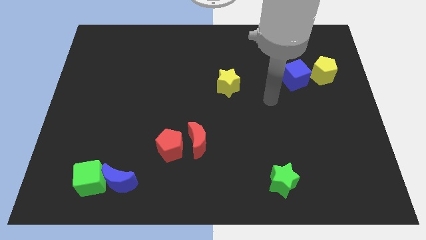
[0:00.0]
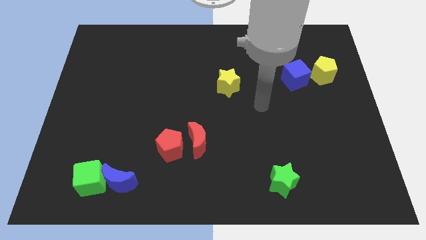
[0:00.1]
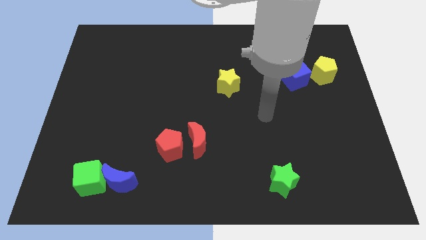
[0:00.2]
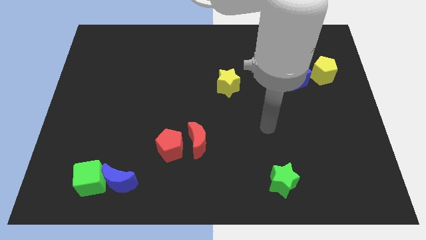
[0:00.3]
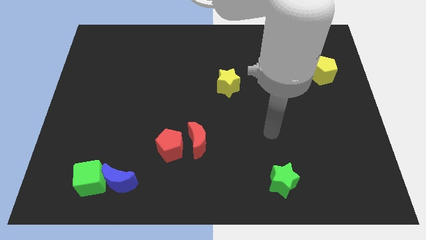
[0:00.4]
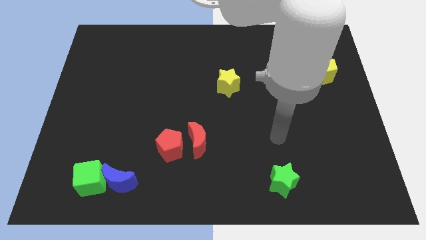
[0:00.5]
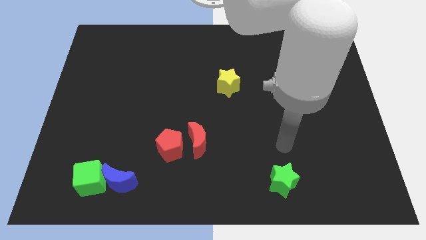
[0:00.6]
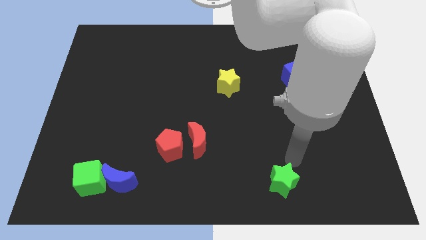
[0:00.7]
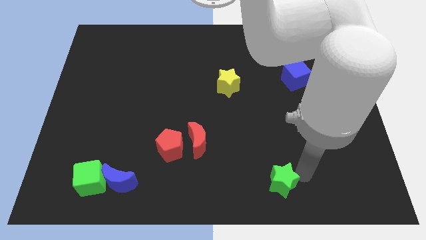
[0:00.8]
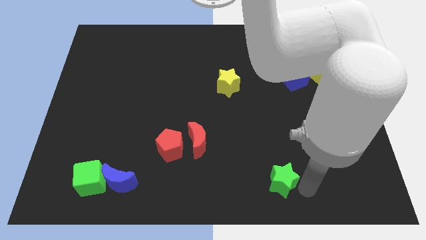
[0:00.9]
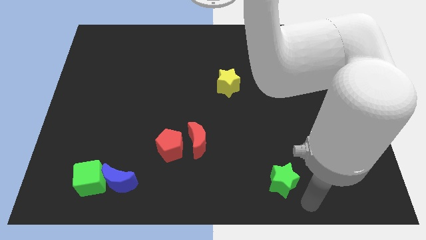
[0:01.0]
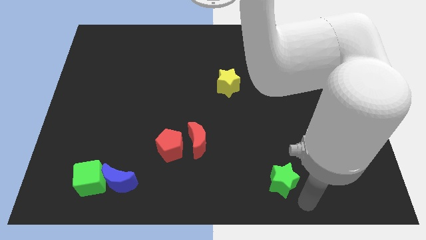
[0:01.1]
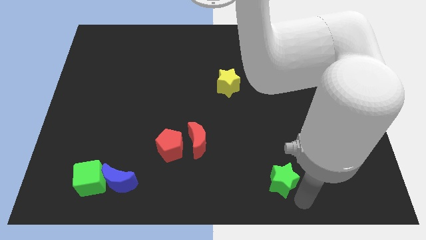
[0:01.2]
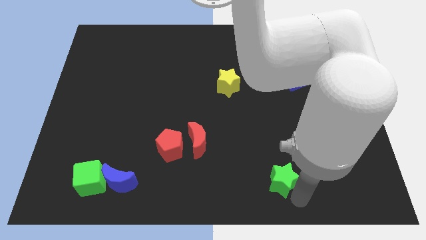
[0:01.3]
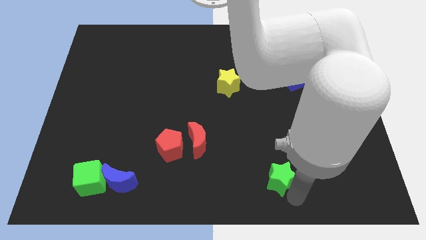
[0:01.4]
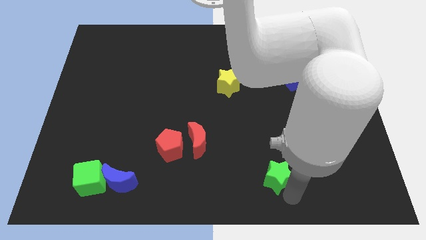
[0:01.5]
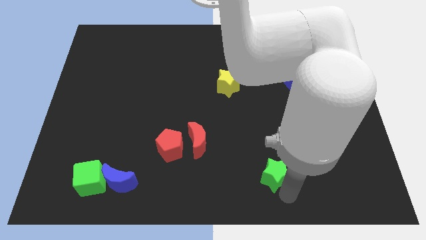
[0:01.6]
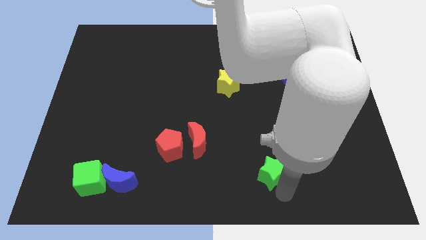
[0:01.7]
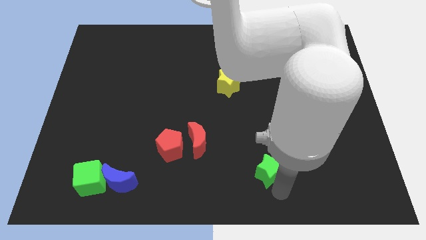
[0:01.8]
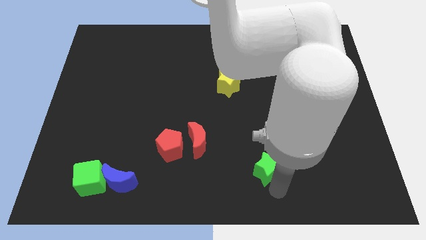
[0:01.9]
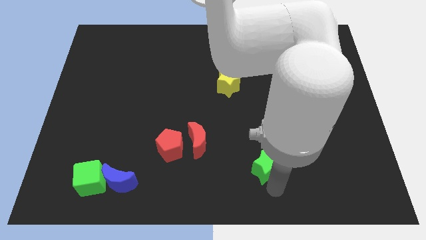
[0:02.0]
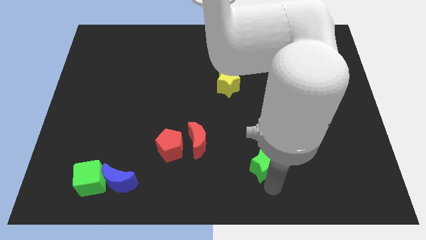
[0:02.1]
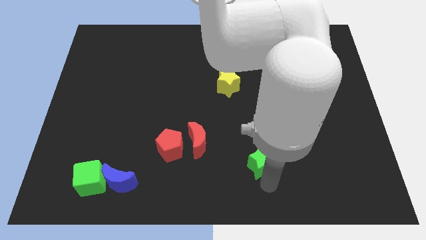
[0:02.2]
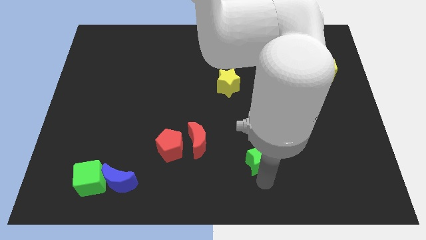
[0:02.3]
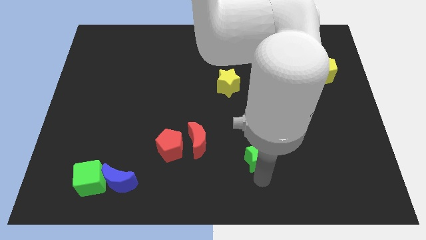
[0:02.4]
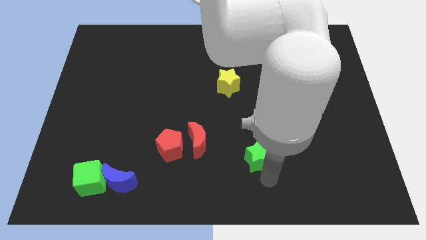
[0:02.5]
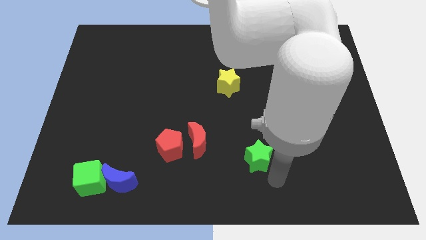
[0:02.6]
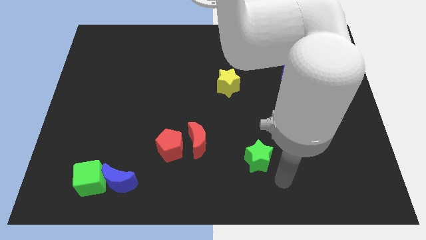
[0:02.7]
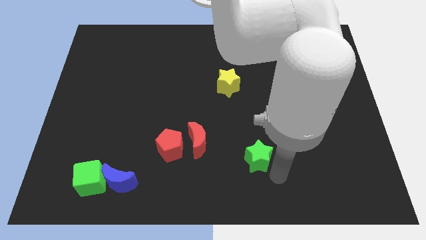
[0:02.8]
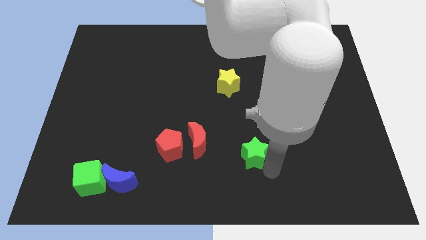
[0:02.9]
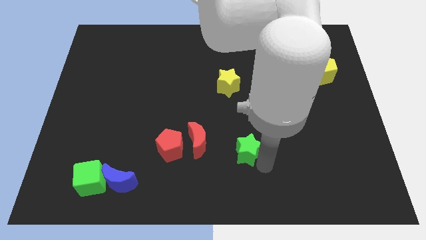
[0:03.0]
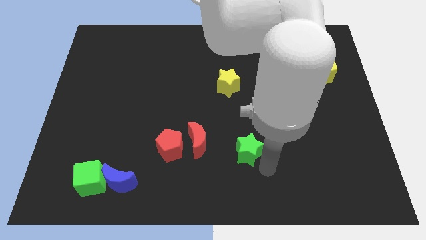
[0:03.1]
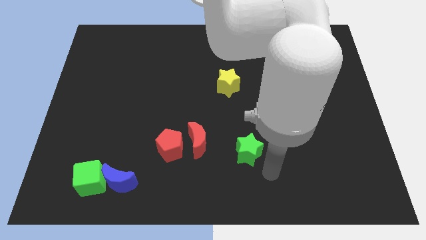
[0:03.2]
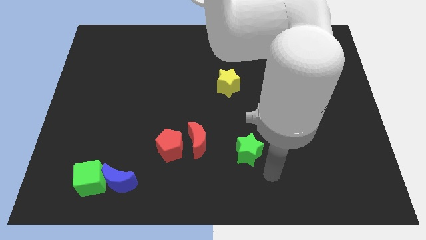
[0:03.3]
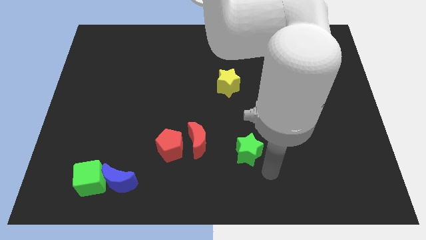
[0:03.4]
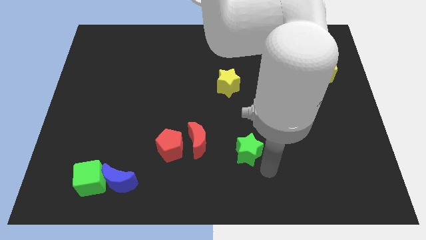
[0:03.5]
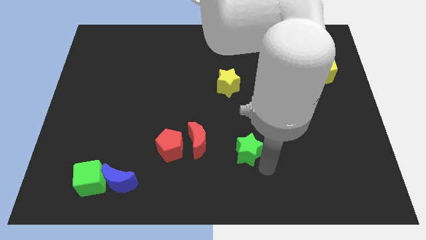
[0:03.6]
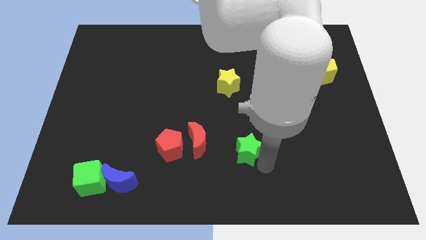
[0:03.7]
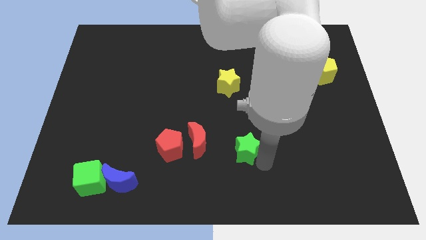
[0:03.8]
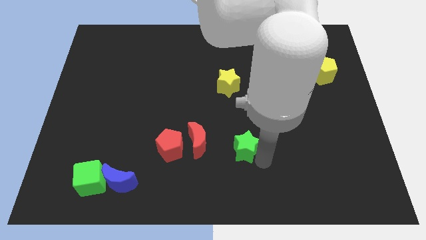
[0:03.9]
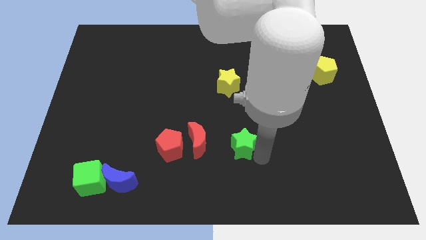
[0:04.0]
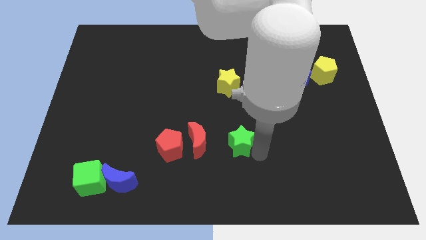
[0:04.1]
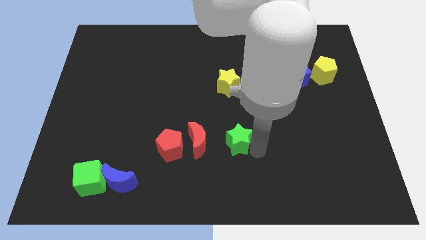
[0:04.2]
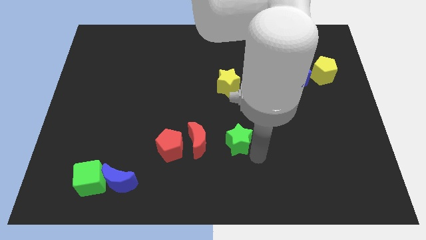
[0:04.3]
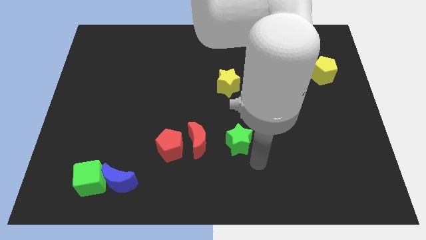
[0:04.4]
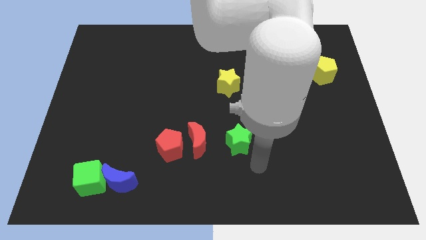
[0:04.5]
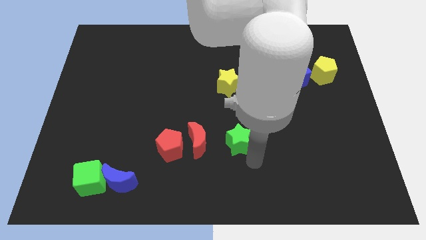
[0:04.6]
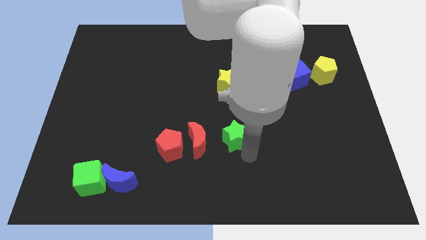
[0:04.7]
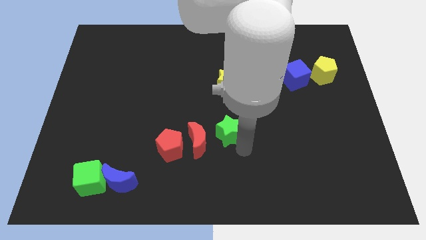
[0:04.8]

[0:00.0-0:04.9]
put the green star diagonally up and to the right of the red moon

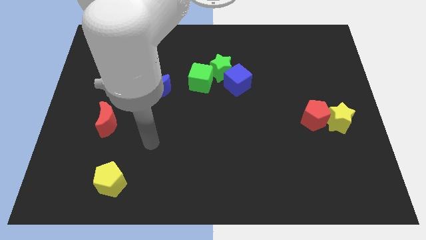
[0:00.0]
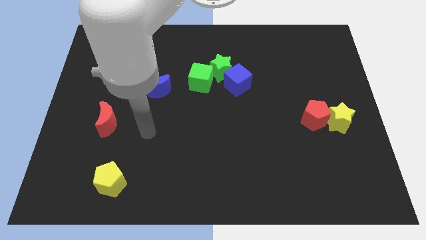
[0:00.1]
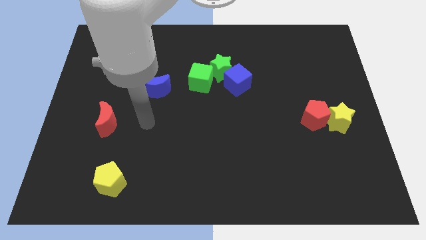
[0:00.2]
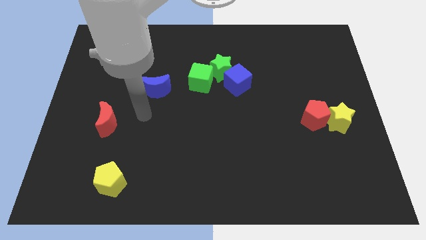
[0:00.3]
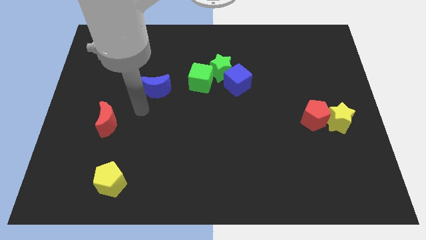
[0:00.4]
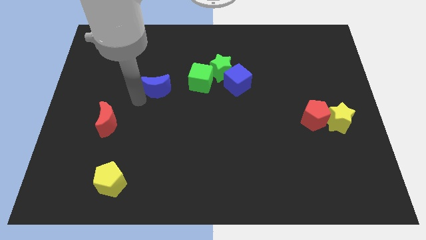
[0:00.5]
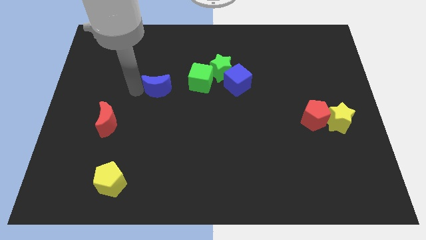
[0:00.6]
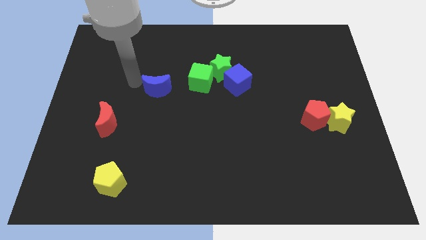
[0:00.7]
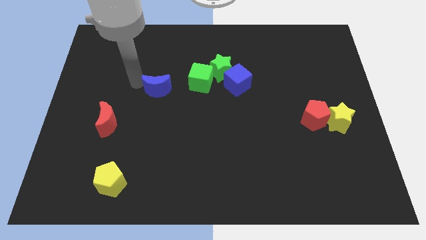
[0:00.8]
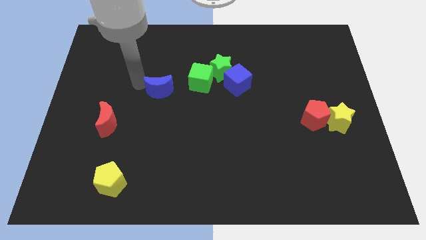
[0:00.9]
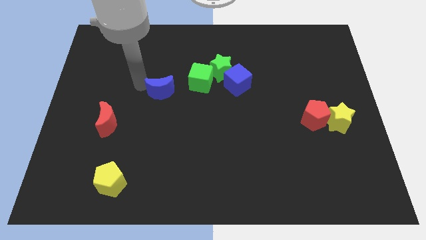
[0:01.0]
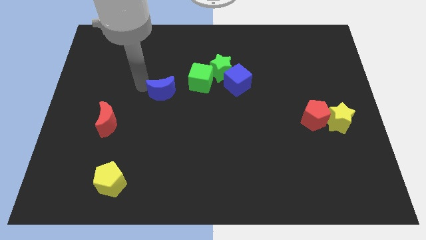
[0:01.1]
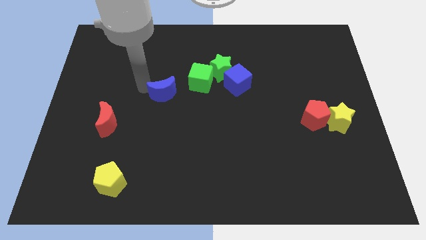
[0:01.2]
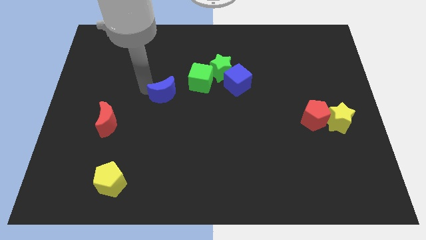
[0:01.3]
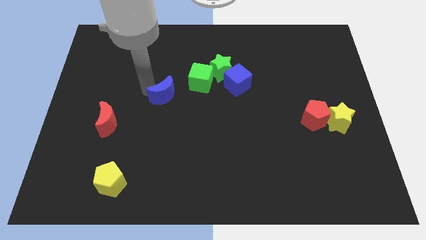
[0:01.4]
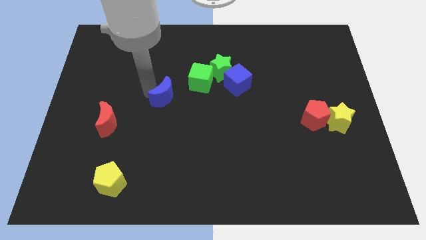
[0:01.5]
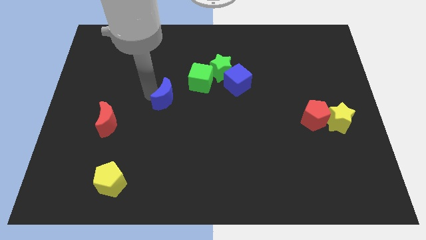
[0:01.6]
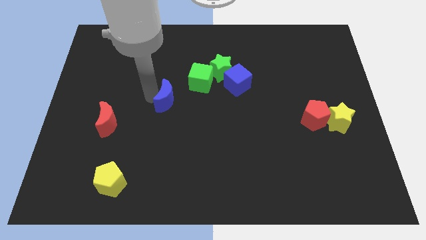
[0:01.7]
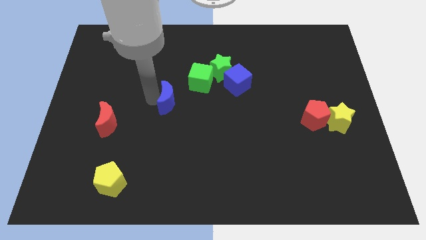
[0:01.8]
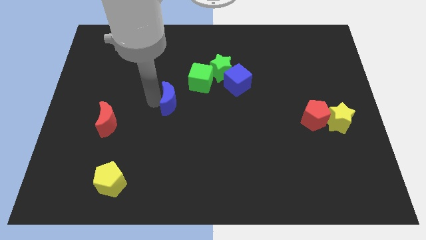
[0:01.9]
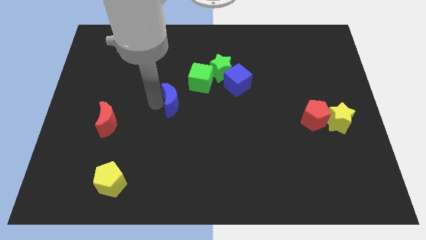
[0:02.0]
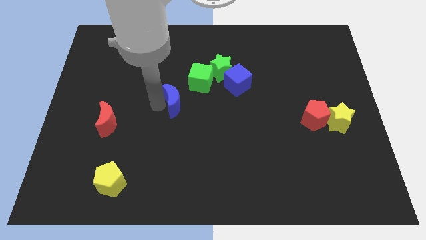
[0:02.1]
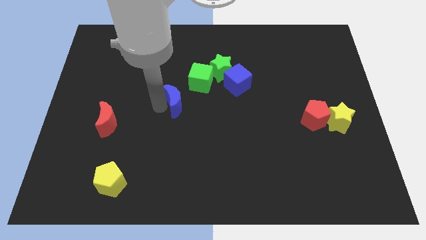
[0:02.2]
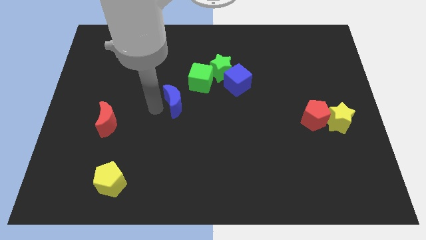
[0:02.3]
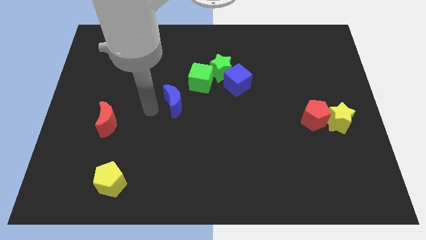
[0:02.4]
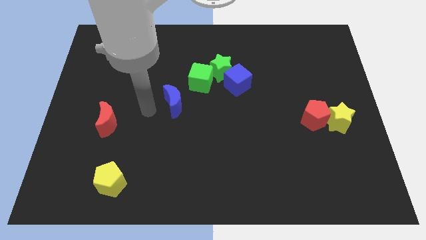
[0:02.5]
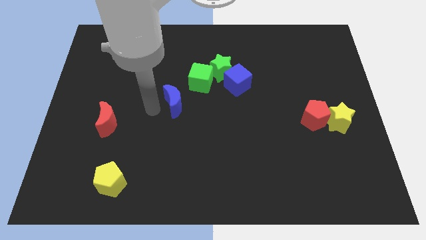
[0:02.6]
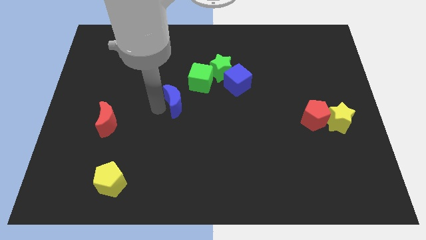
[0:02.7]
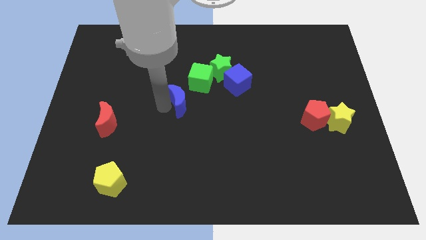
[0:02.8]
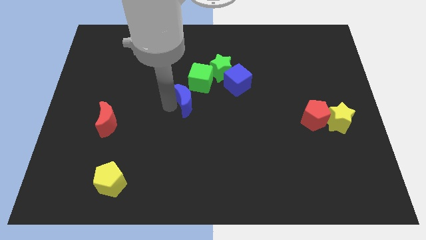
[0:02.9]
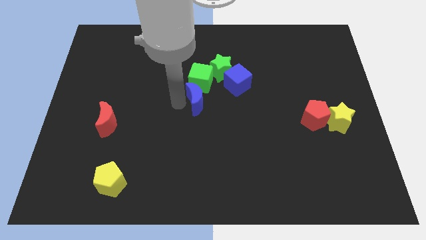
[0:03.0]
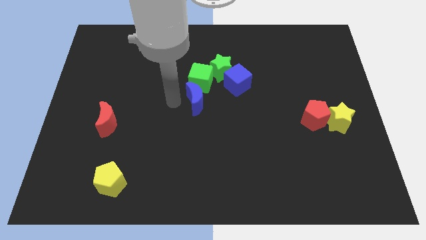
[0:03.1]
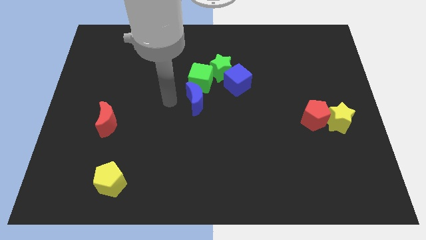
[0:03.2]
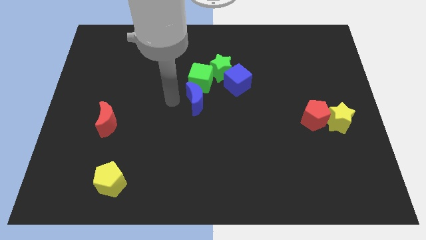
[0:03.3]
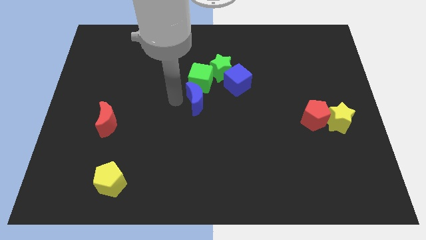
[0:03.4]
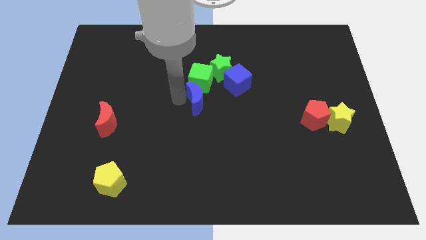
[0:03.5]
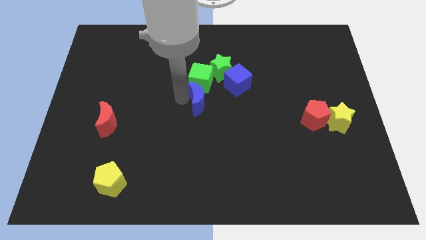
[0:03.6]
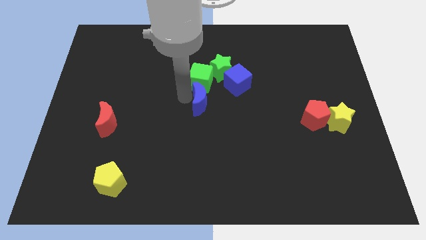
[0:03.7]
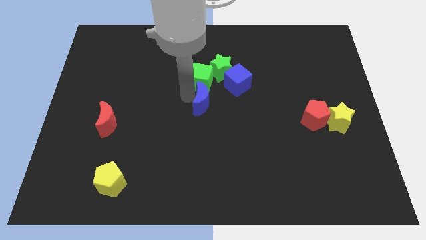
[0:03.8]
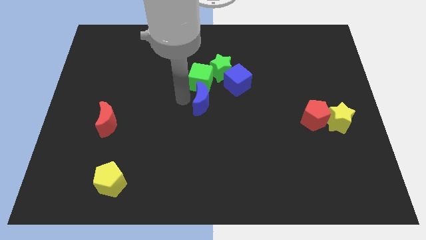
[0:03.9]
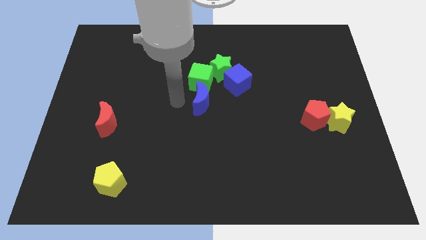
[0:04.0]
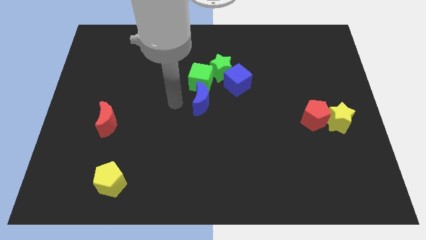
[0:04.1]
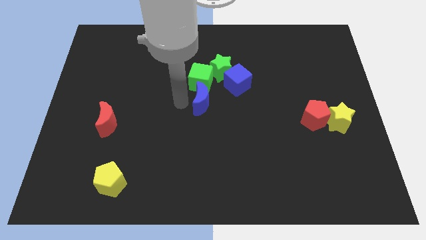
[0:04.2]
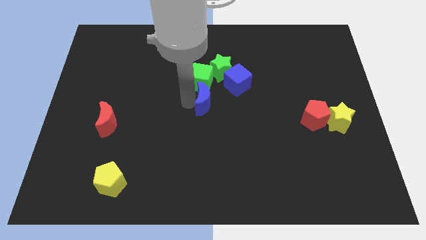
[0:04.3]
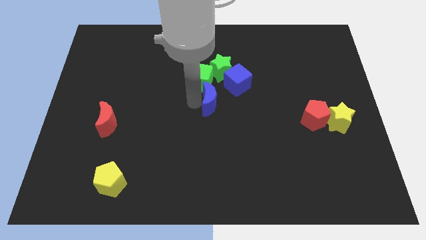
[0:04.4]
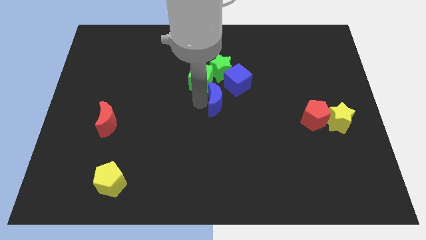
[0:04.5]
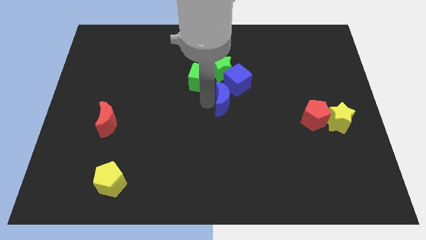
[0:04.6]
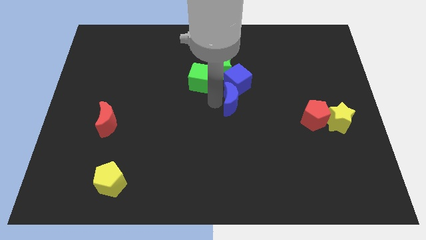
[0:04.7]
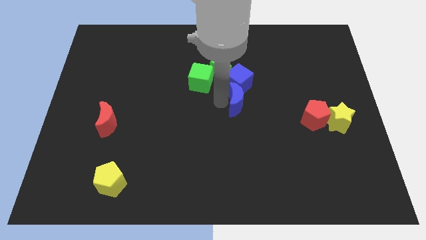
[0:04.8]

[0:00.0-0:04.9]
move the blue moon to the bottom right of the green star
